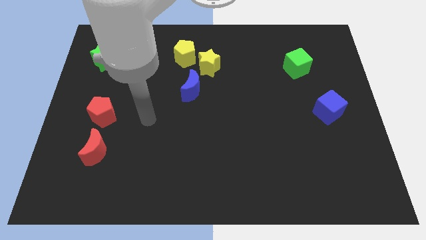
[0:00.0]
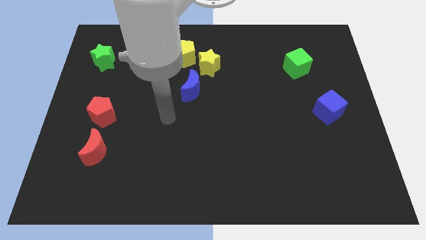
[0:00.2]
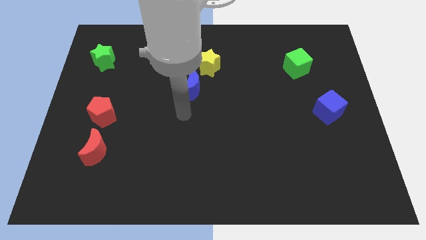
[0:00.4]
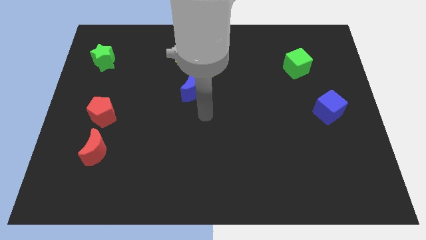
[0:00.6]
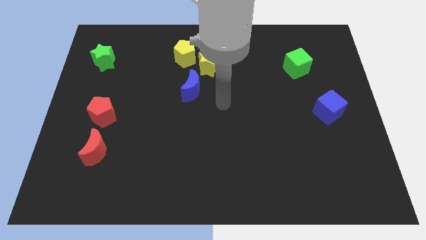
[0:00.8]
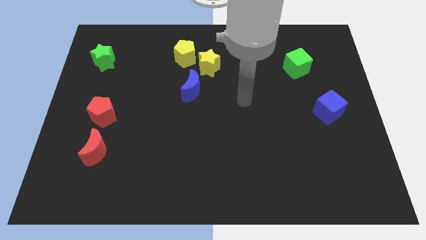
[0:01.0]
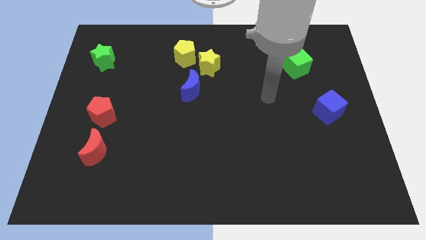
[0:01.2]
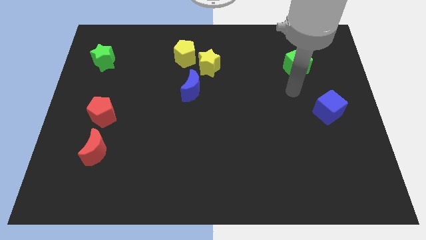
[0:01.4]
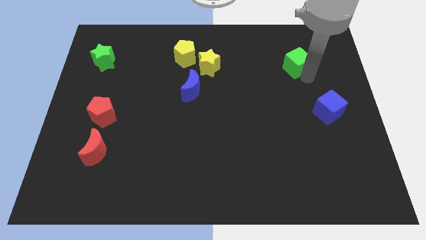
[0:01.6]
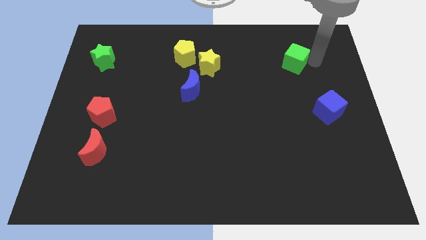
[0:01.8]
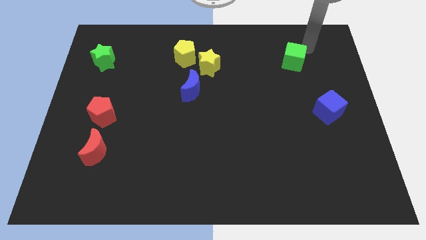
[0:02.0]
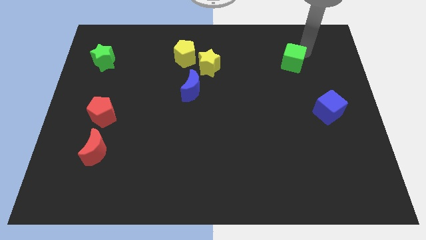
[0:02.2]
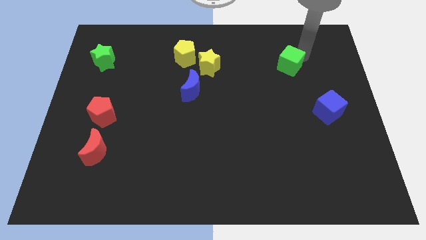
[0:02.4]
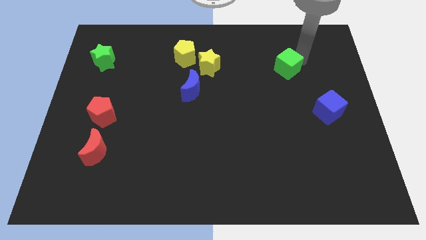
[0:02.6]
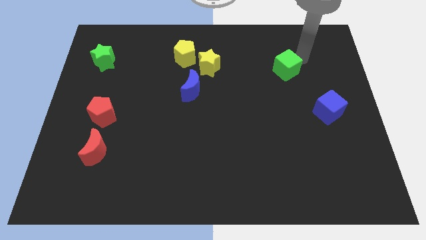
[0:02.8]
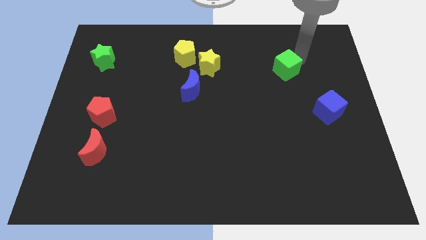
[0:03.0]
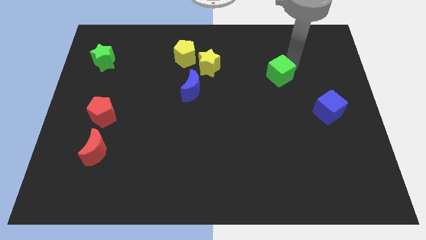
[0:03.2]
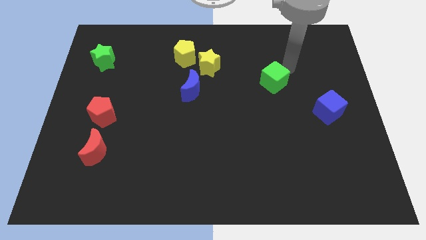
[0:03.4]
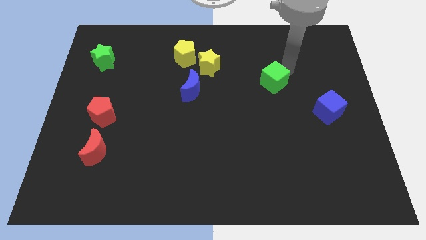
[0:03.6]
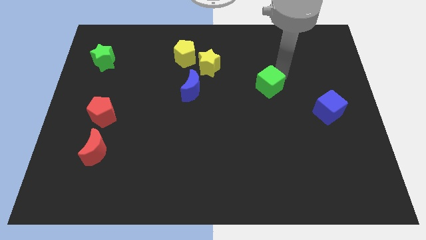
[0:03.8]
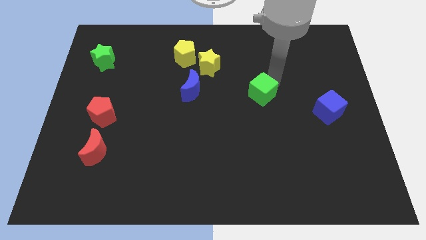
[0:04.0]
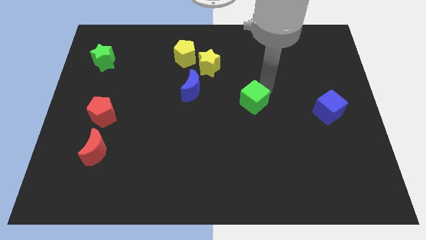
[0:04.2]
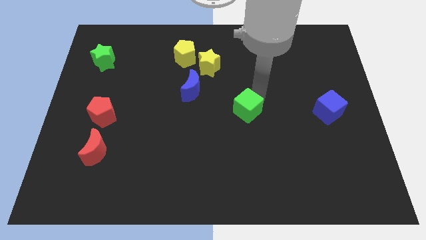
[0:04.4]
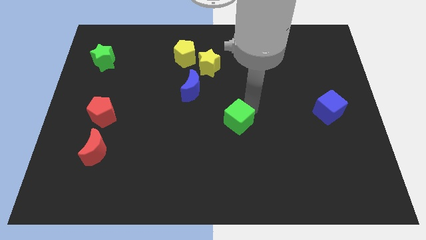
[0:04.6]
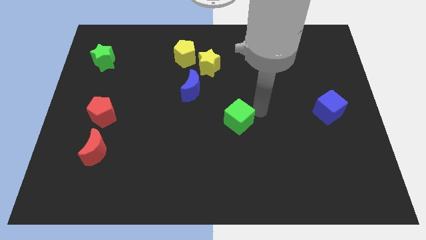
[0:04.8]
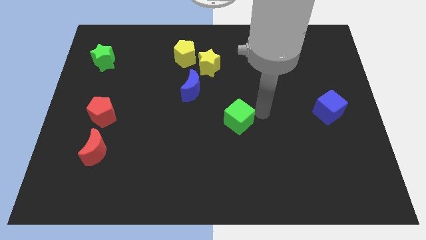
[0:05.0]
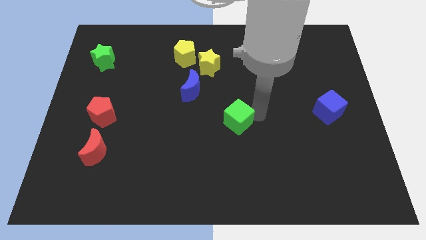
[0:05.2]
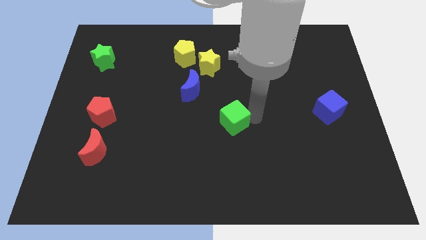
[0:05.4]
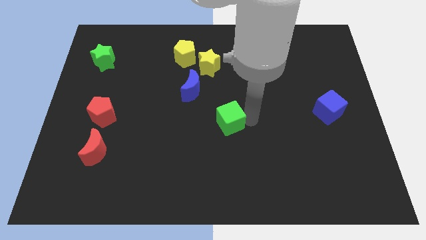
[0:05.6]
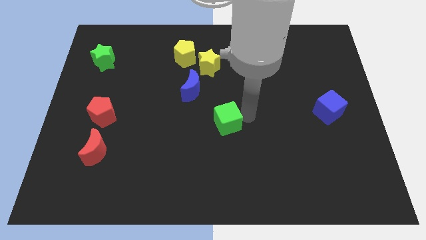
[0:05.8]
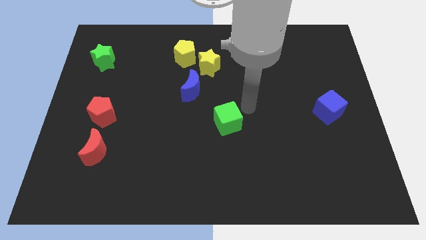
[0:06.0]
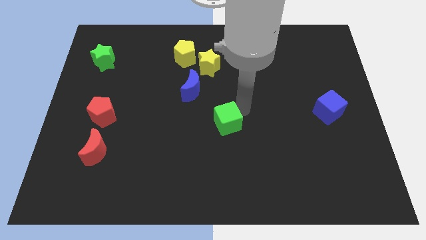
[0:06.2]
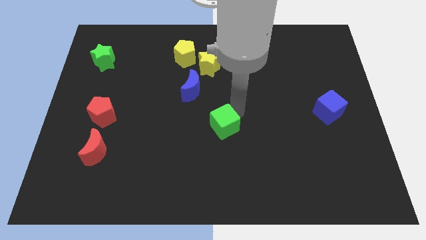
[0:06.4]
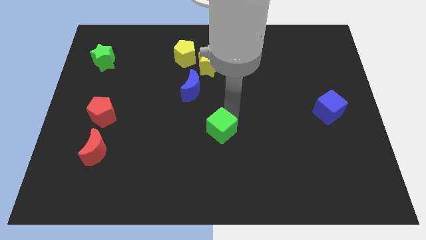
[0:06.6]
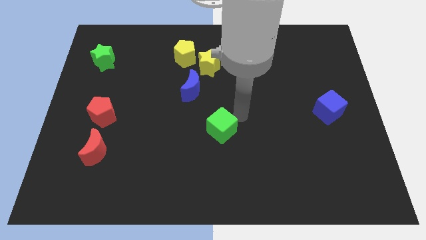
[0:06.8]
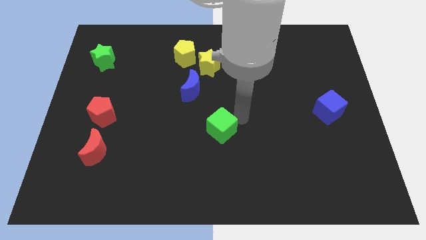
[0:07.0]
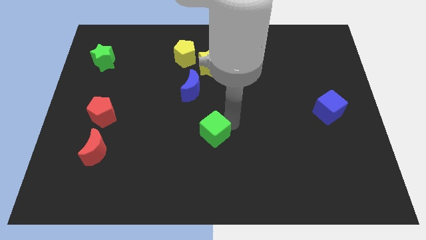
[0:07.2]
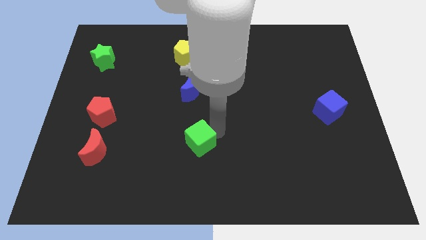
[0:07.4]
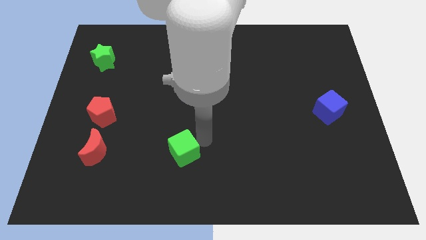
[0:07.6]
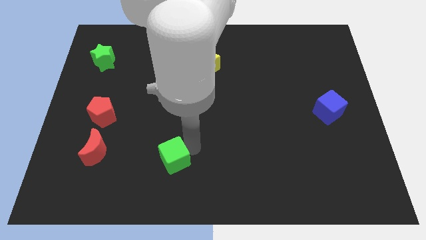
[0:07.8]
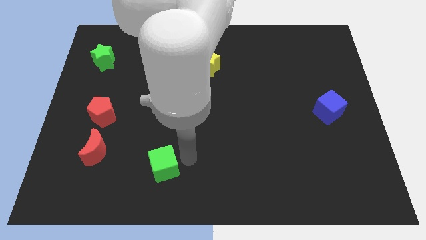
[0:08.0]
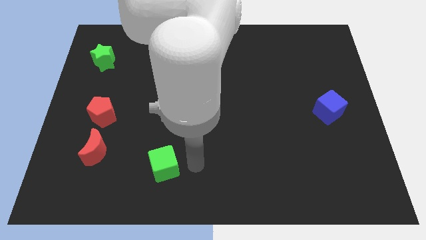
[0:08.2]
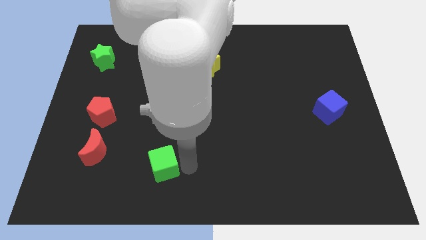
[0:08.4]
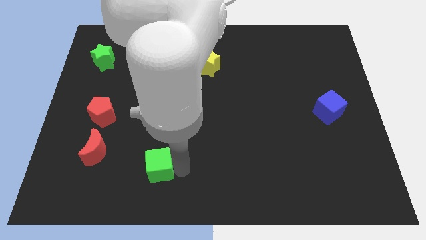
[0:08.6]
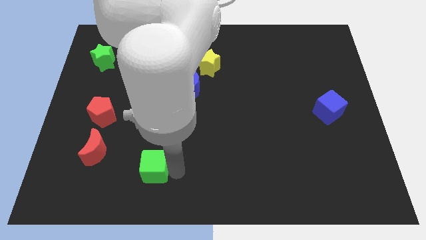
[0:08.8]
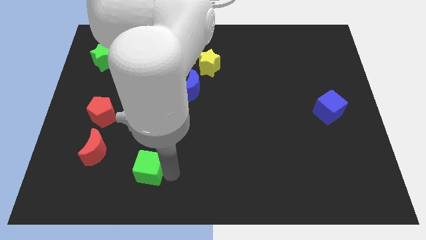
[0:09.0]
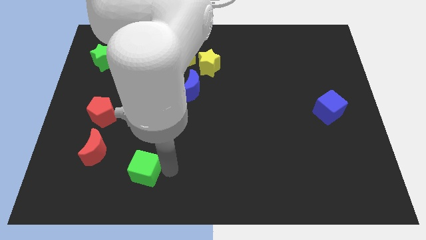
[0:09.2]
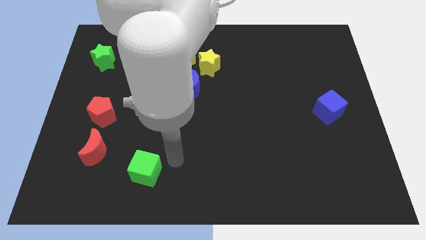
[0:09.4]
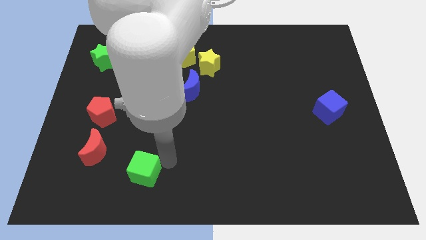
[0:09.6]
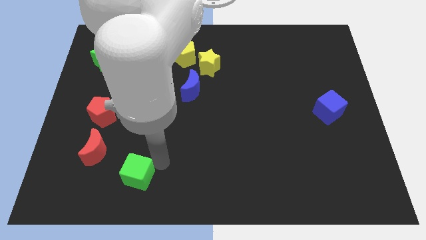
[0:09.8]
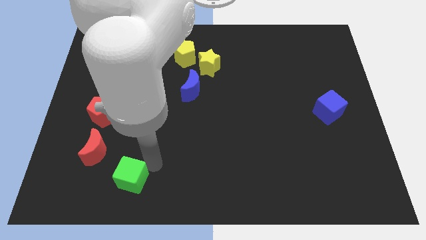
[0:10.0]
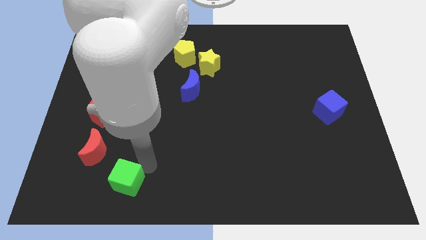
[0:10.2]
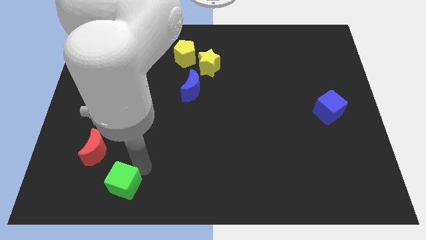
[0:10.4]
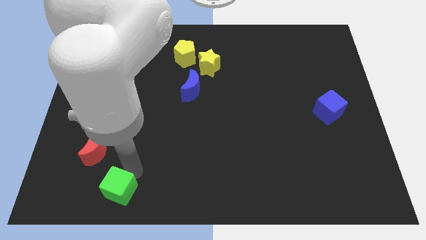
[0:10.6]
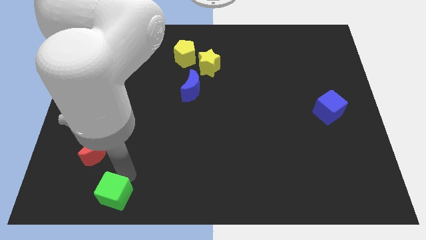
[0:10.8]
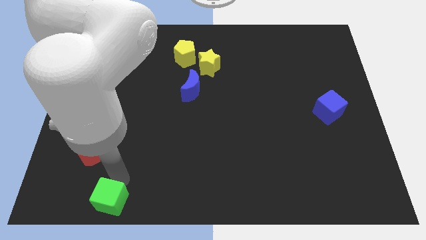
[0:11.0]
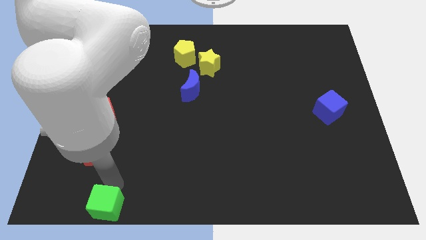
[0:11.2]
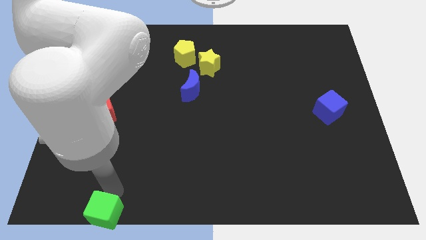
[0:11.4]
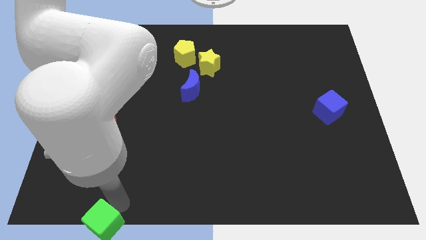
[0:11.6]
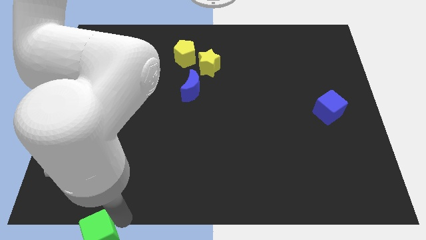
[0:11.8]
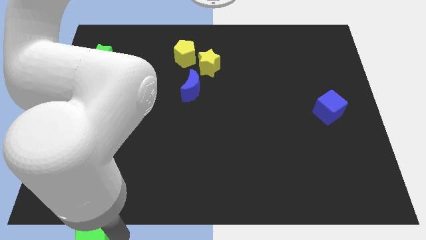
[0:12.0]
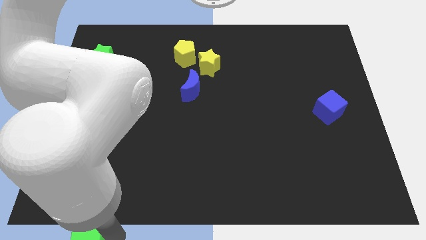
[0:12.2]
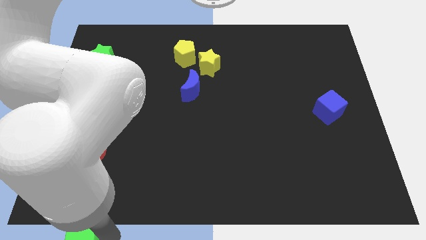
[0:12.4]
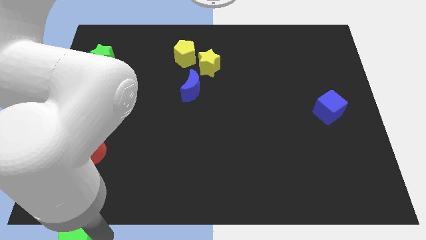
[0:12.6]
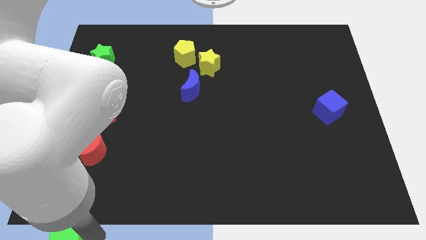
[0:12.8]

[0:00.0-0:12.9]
push the green cube to the bottom left corner
